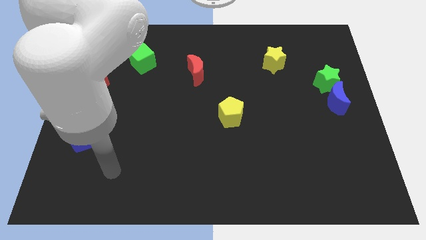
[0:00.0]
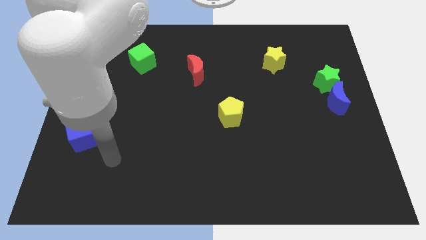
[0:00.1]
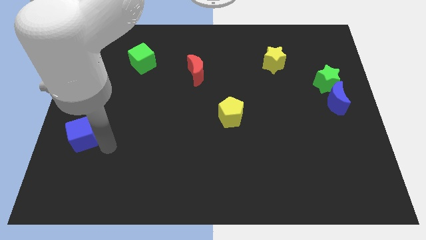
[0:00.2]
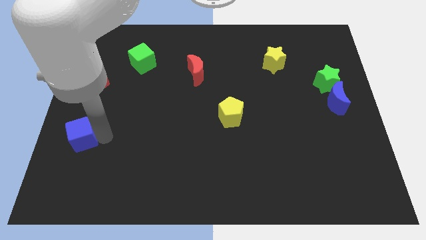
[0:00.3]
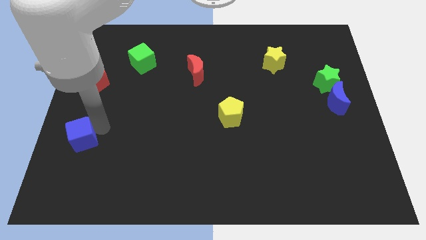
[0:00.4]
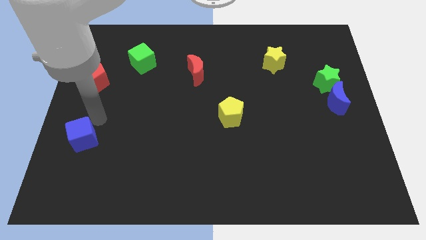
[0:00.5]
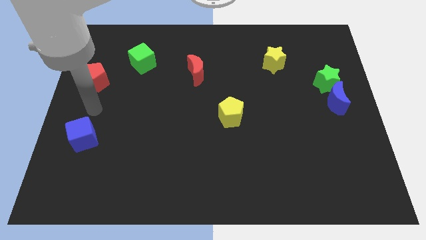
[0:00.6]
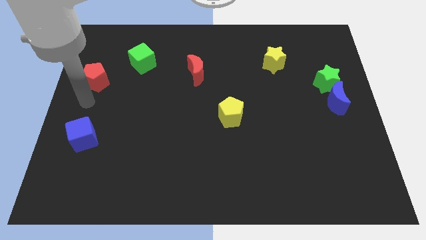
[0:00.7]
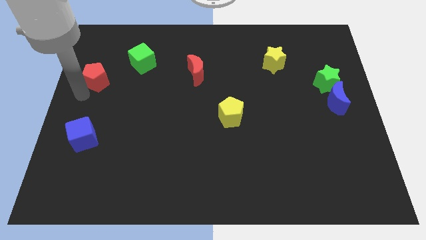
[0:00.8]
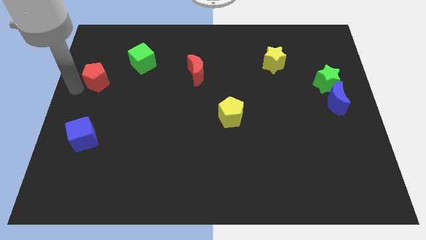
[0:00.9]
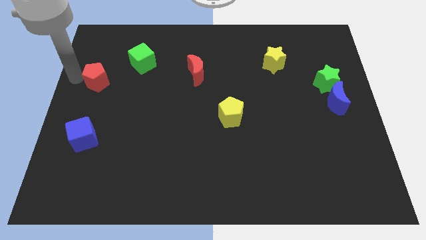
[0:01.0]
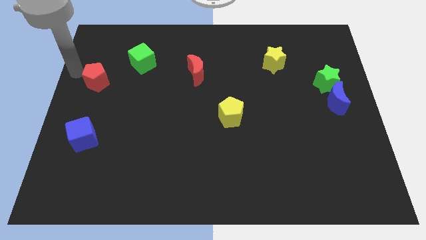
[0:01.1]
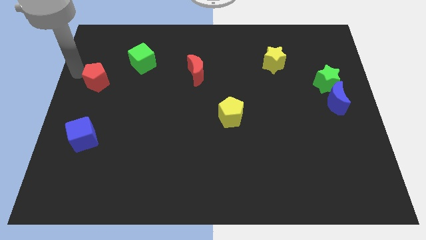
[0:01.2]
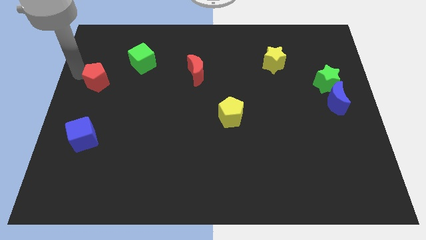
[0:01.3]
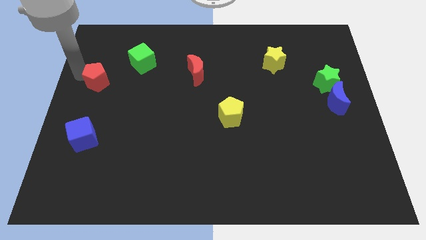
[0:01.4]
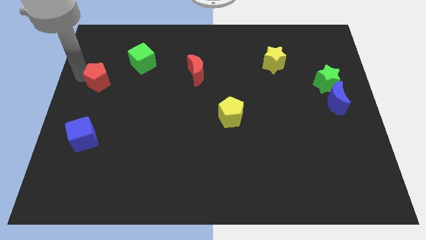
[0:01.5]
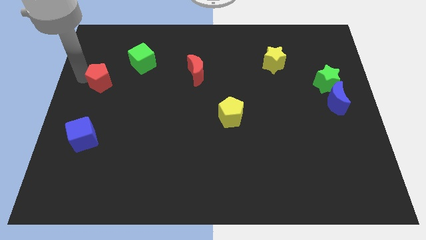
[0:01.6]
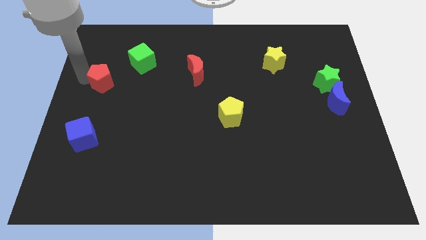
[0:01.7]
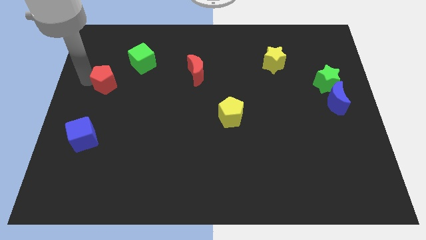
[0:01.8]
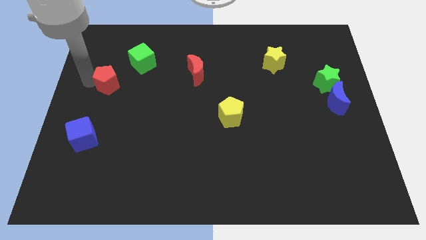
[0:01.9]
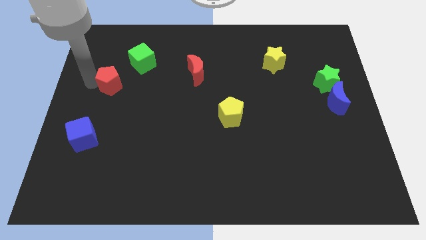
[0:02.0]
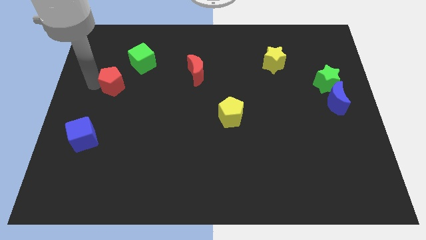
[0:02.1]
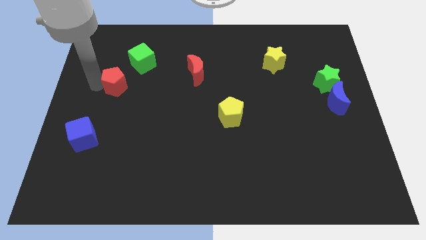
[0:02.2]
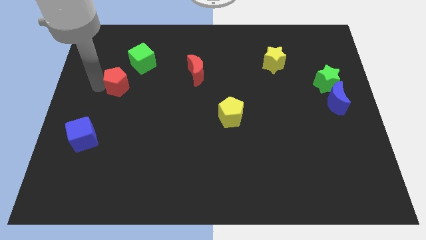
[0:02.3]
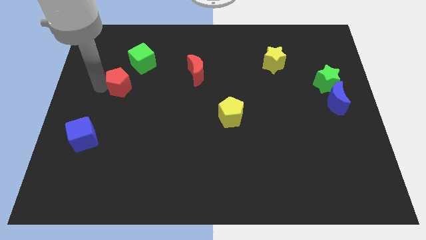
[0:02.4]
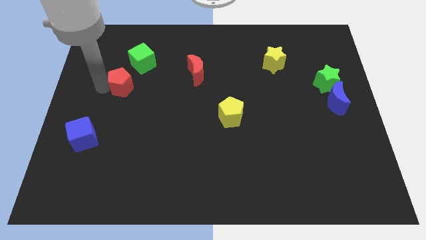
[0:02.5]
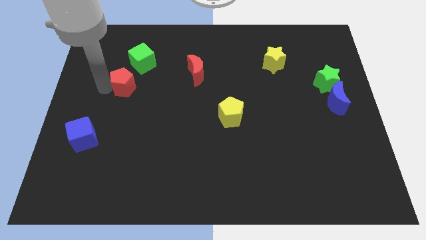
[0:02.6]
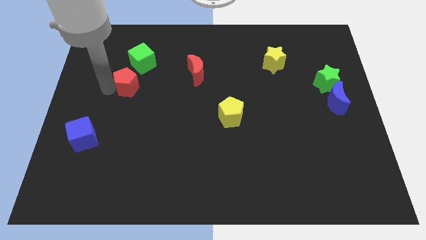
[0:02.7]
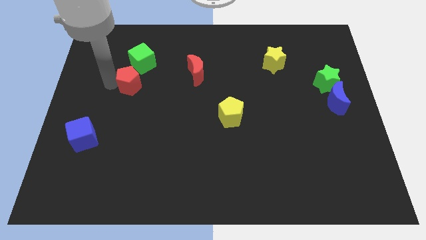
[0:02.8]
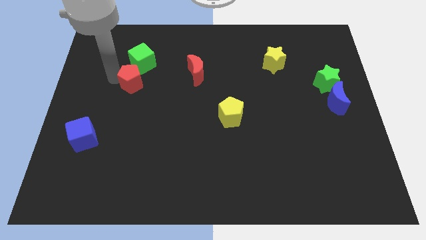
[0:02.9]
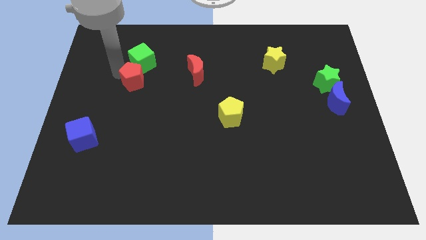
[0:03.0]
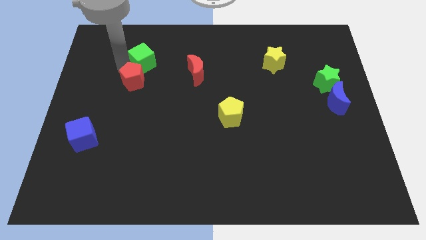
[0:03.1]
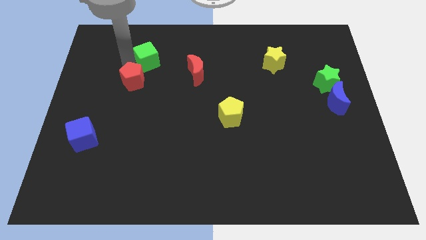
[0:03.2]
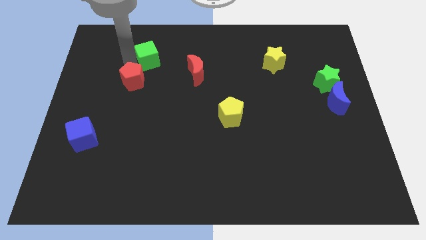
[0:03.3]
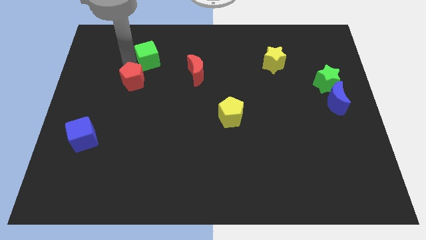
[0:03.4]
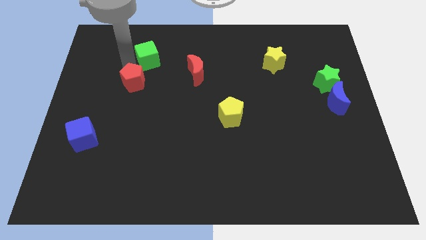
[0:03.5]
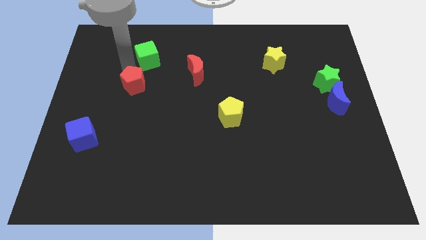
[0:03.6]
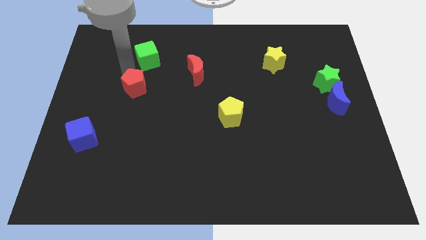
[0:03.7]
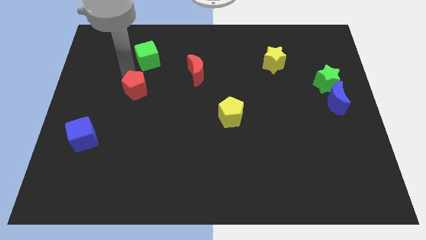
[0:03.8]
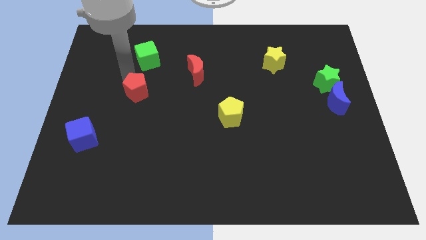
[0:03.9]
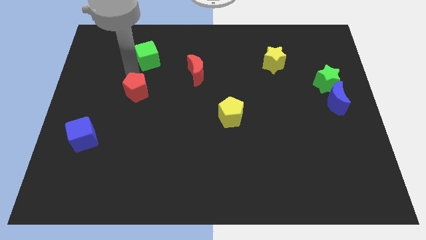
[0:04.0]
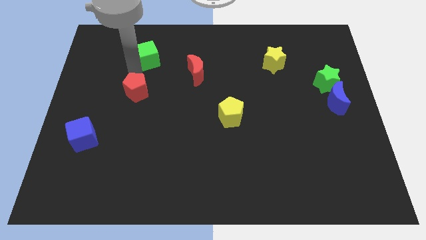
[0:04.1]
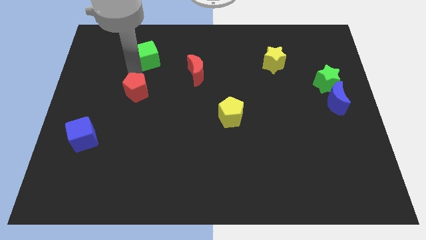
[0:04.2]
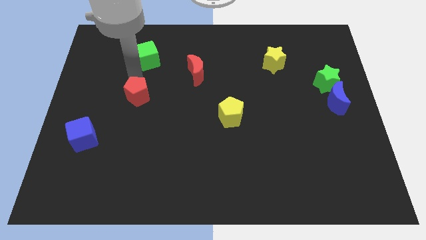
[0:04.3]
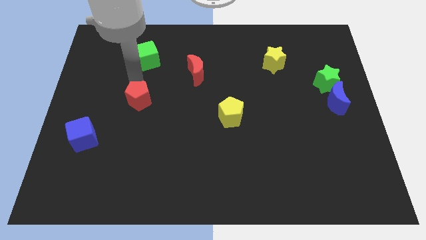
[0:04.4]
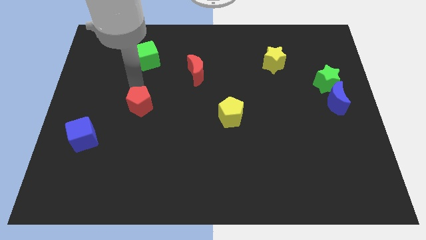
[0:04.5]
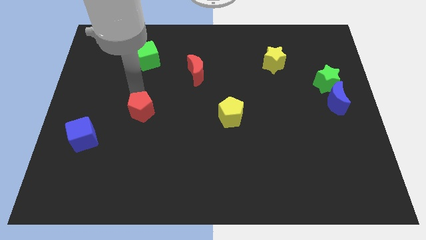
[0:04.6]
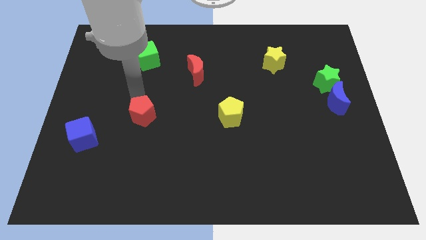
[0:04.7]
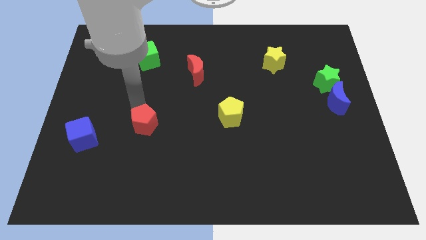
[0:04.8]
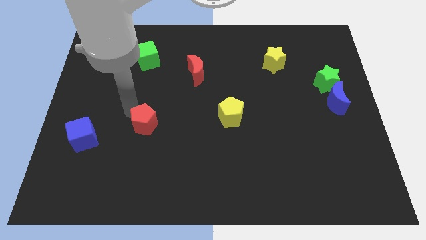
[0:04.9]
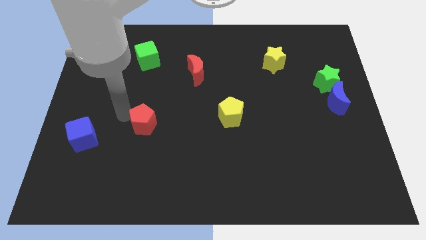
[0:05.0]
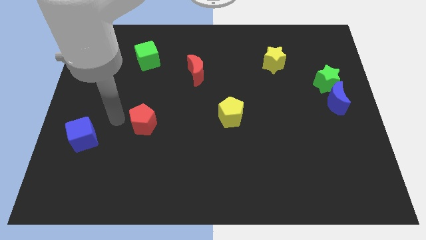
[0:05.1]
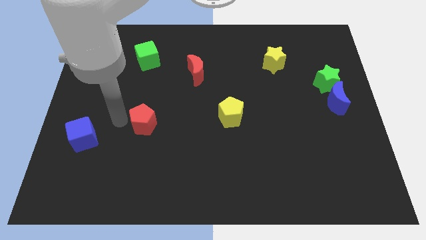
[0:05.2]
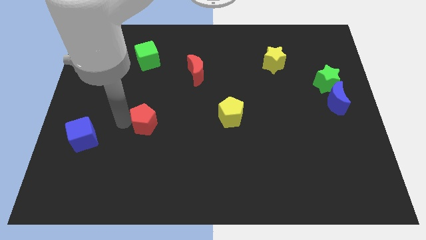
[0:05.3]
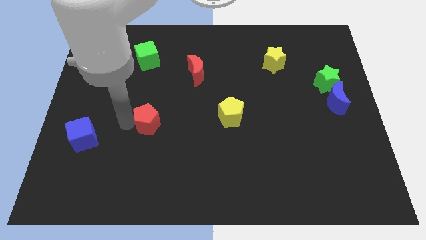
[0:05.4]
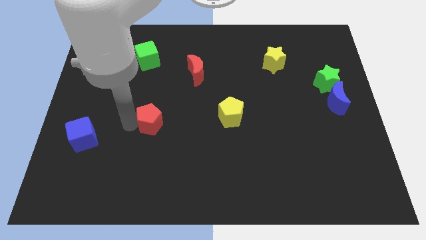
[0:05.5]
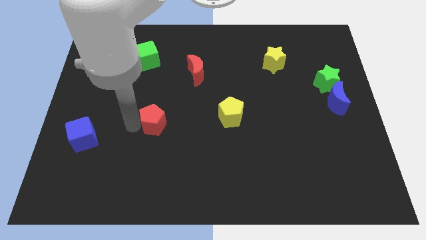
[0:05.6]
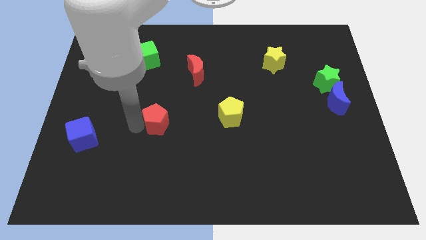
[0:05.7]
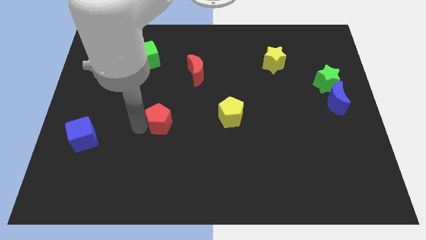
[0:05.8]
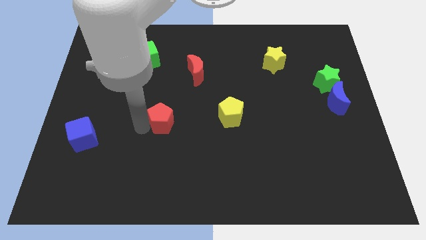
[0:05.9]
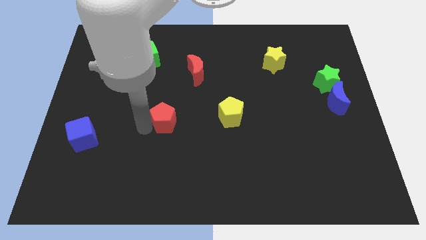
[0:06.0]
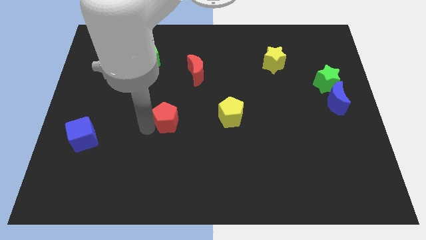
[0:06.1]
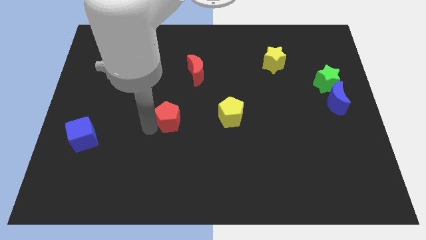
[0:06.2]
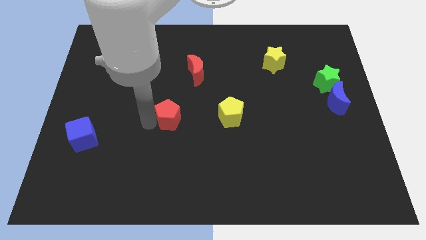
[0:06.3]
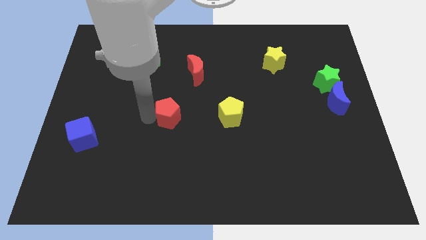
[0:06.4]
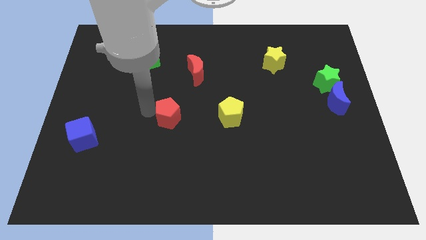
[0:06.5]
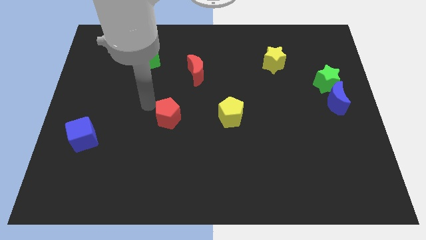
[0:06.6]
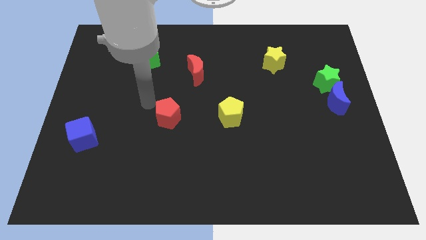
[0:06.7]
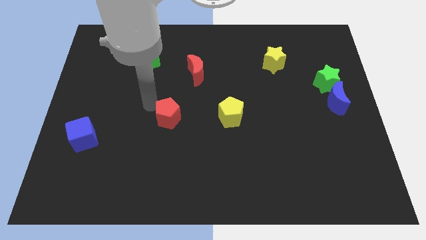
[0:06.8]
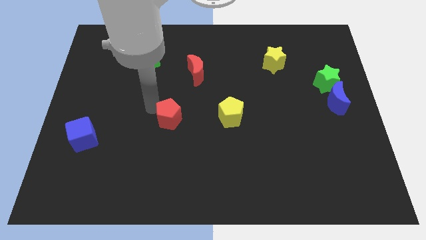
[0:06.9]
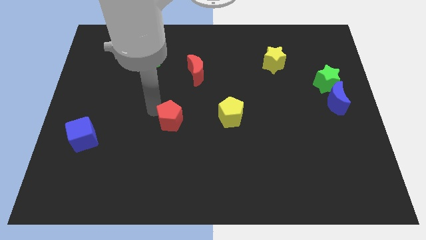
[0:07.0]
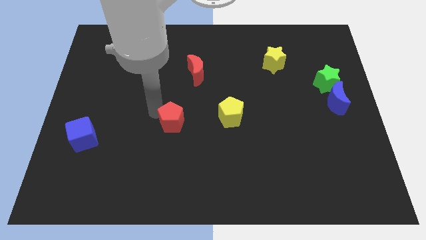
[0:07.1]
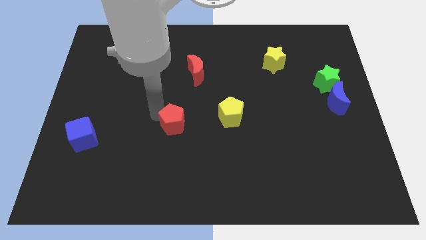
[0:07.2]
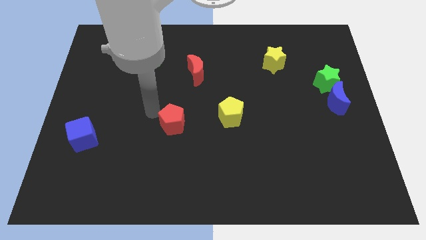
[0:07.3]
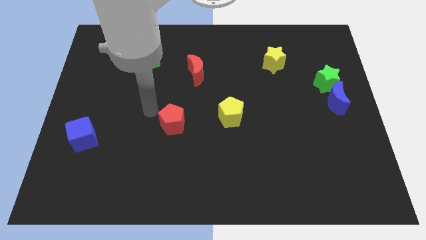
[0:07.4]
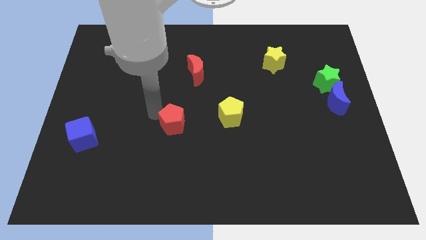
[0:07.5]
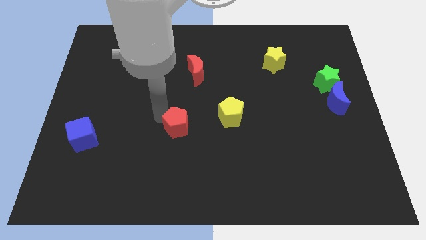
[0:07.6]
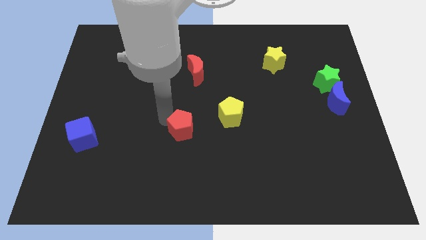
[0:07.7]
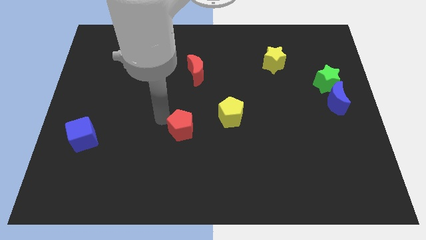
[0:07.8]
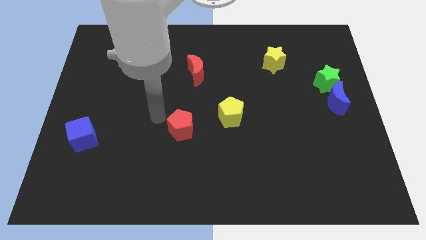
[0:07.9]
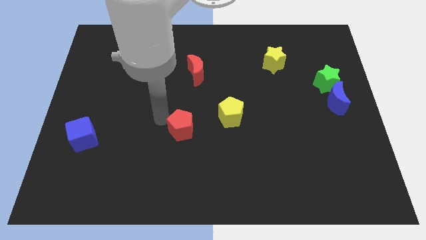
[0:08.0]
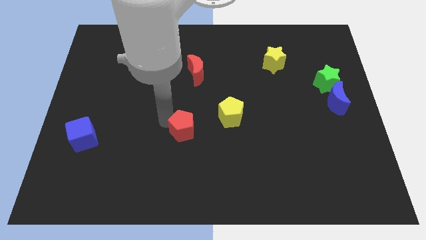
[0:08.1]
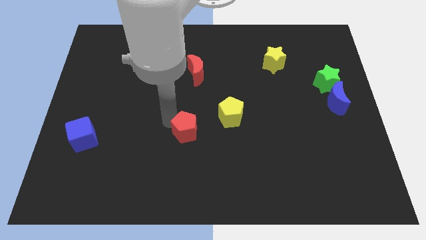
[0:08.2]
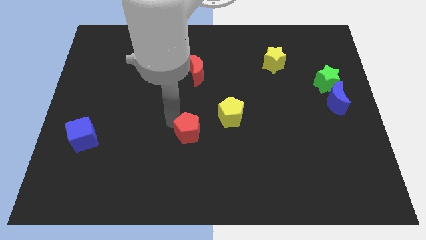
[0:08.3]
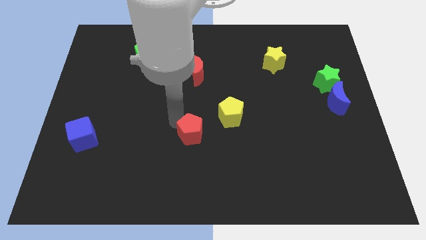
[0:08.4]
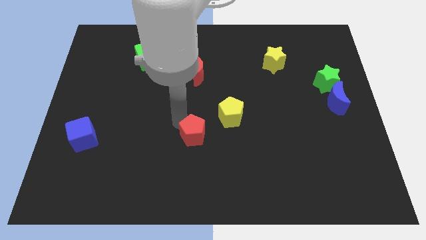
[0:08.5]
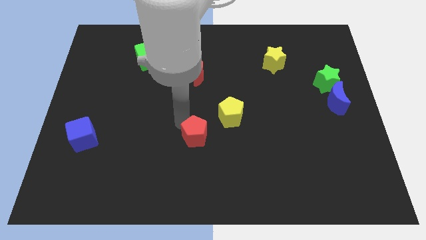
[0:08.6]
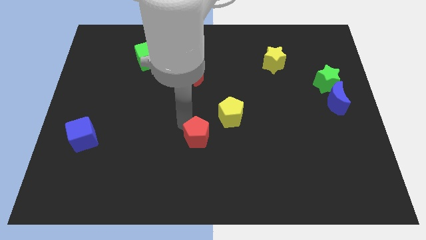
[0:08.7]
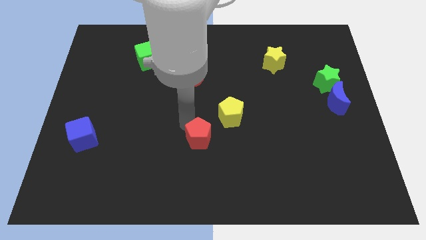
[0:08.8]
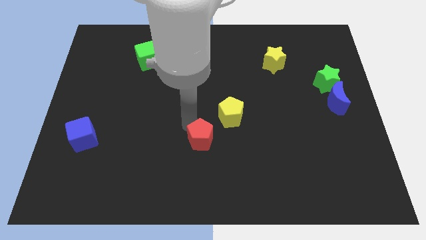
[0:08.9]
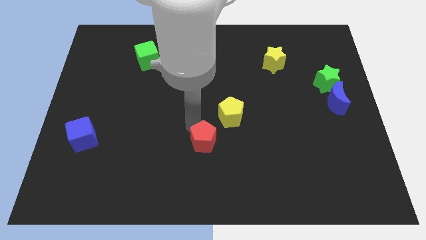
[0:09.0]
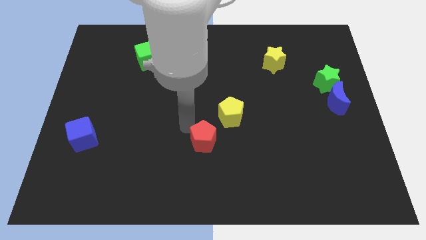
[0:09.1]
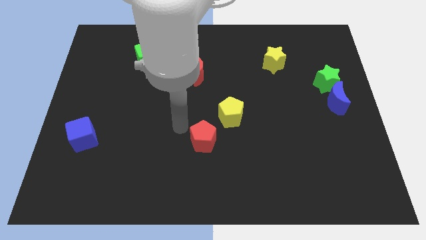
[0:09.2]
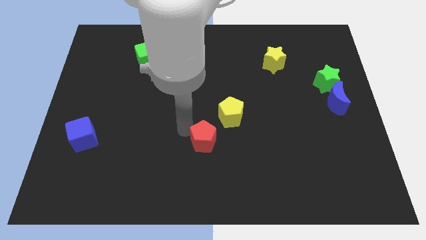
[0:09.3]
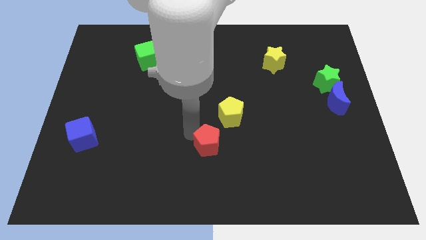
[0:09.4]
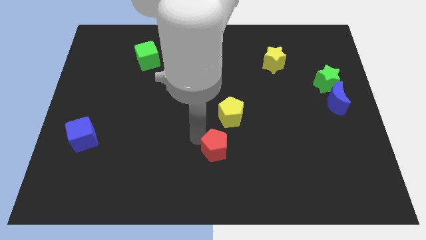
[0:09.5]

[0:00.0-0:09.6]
push the red pentagon to the bottom of the yellow pentagon
